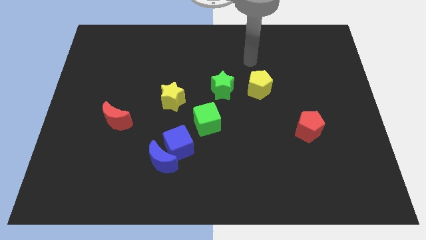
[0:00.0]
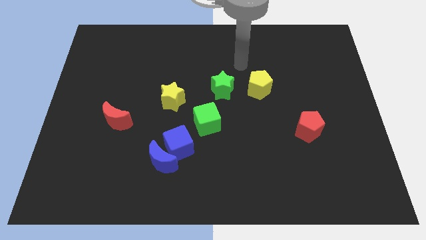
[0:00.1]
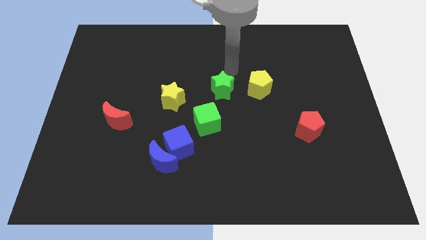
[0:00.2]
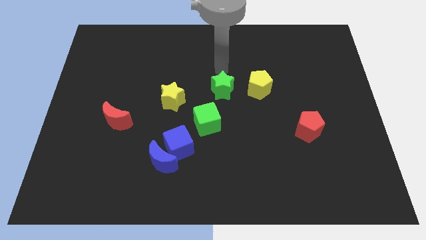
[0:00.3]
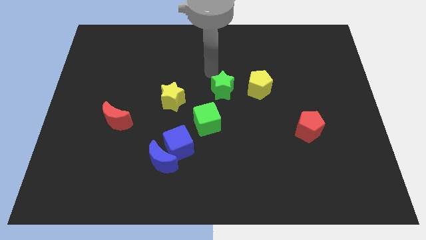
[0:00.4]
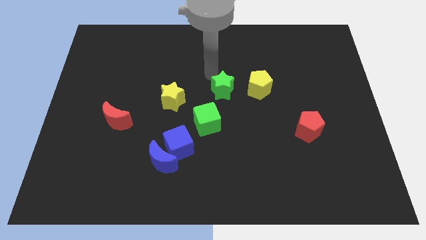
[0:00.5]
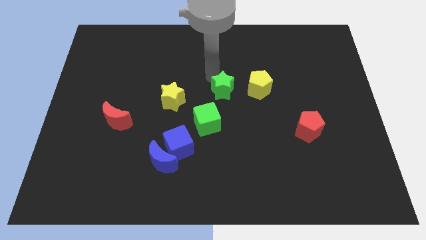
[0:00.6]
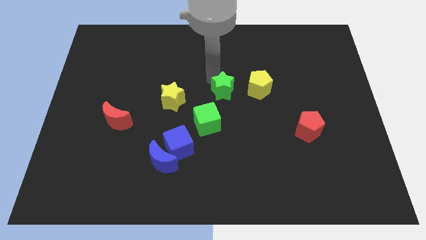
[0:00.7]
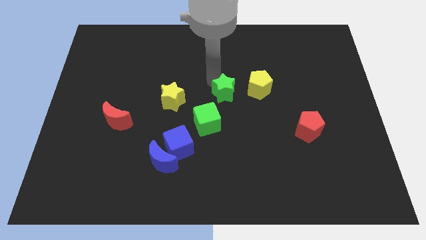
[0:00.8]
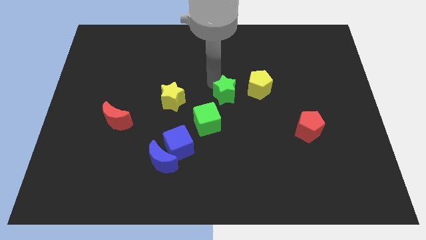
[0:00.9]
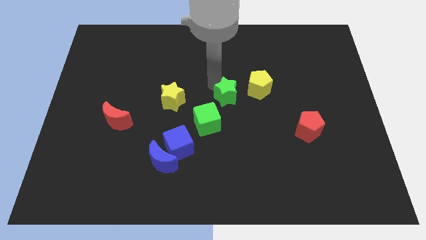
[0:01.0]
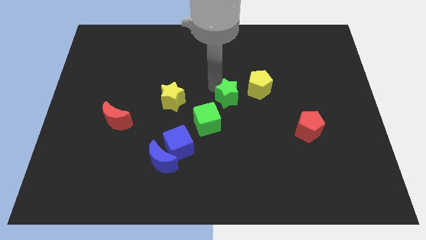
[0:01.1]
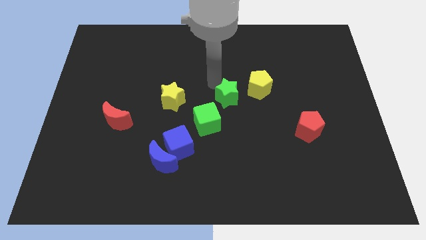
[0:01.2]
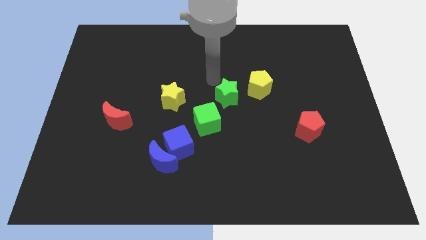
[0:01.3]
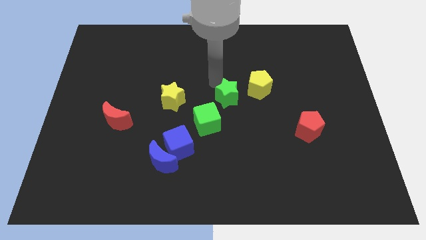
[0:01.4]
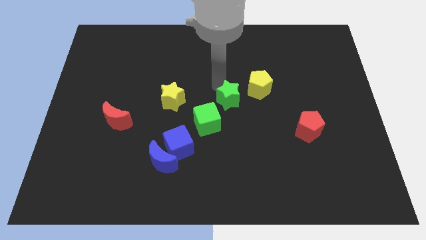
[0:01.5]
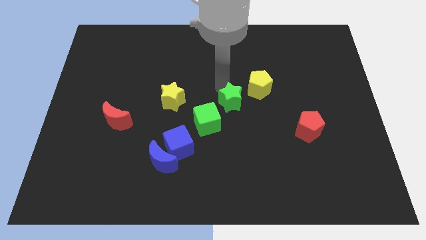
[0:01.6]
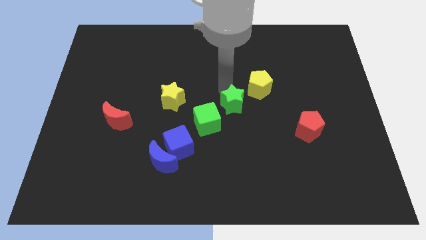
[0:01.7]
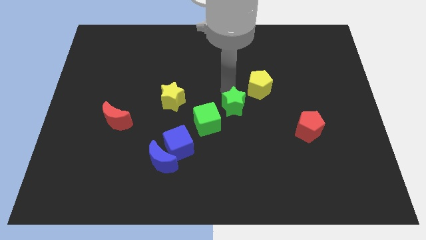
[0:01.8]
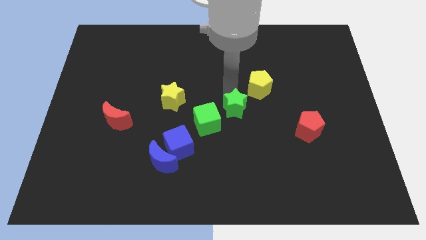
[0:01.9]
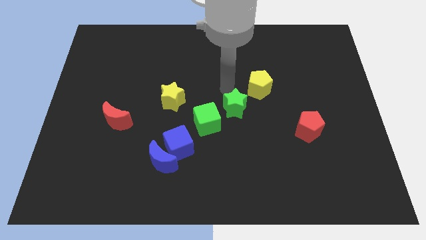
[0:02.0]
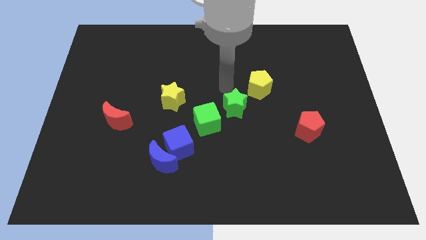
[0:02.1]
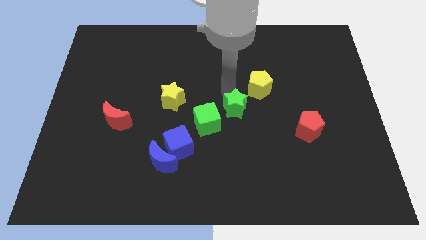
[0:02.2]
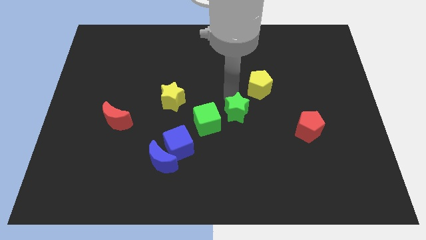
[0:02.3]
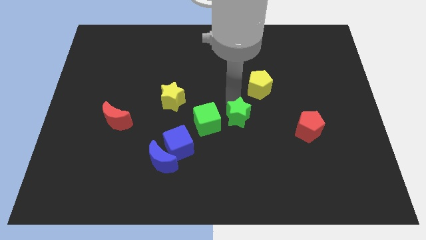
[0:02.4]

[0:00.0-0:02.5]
move the green star downwards a little

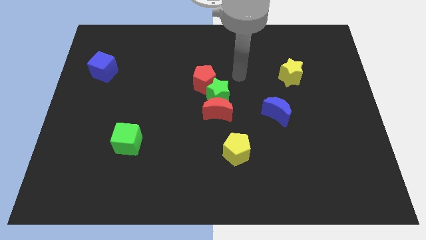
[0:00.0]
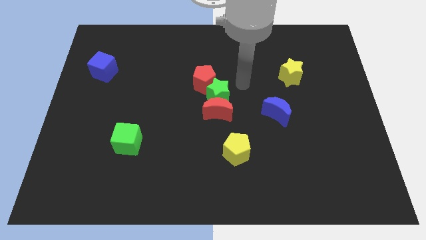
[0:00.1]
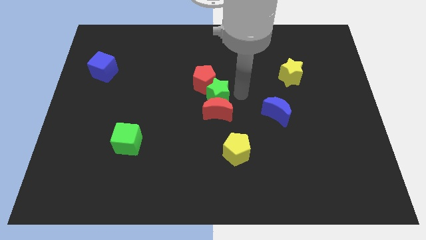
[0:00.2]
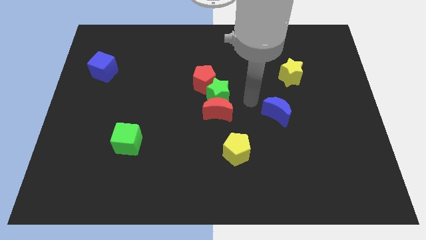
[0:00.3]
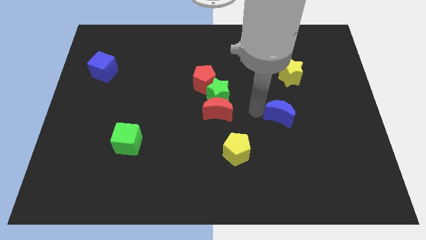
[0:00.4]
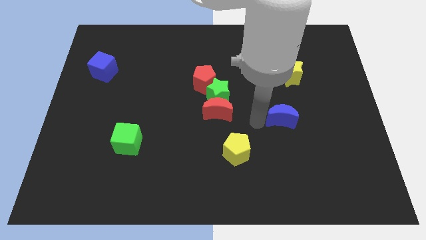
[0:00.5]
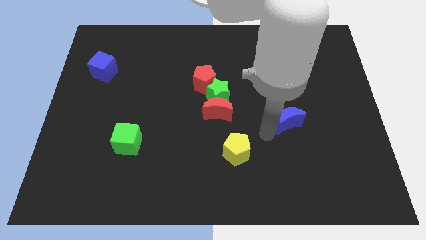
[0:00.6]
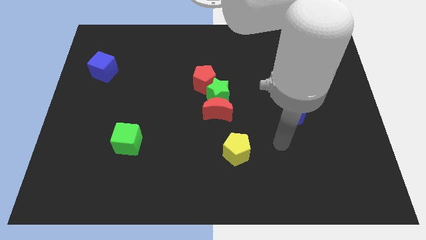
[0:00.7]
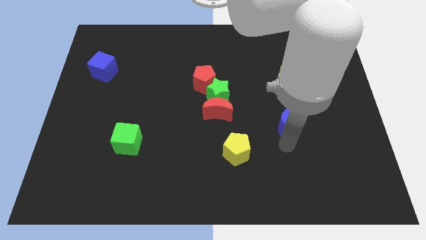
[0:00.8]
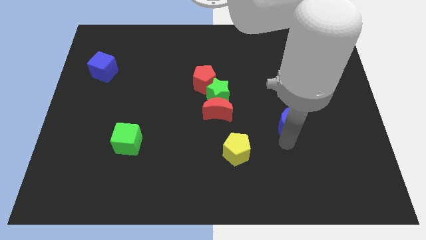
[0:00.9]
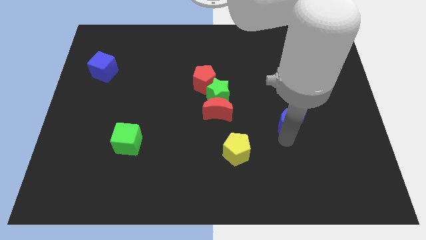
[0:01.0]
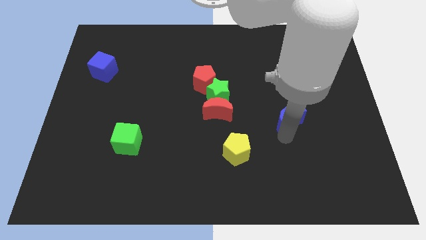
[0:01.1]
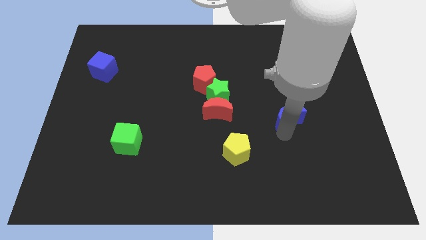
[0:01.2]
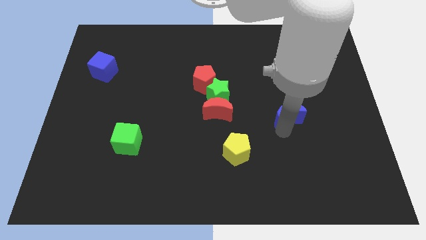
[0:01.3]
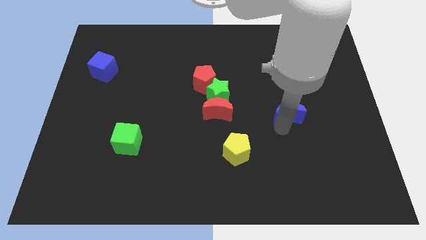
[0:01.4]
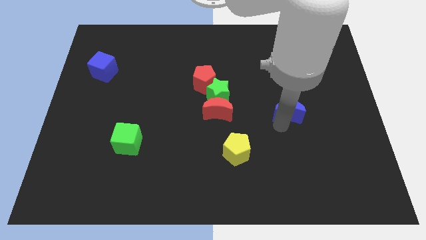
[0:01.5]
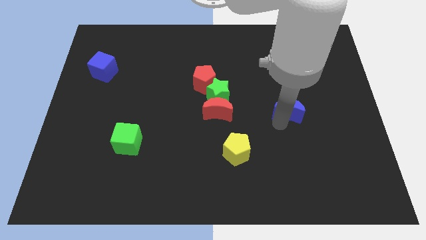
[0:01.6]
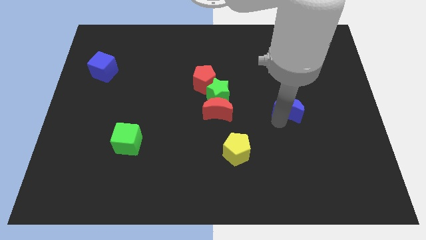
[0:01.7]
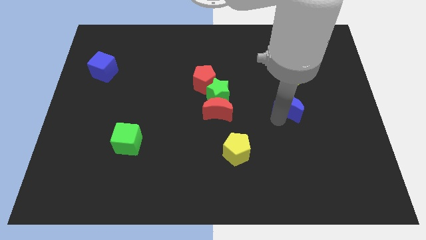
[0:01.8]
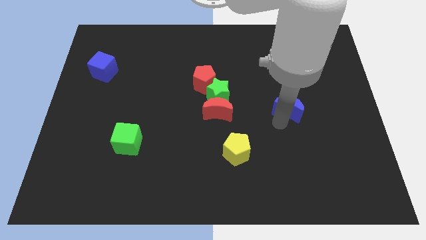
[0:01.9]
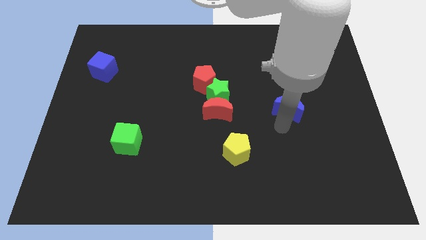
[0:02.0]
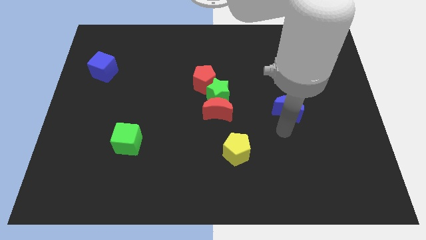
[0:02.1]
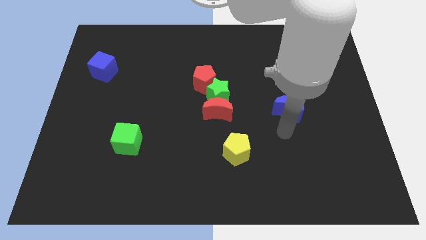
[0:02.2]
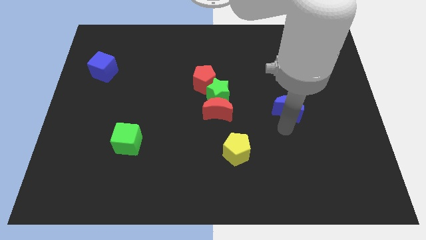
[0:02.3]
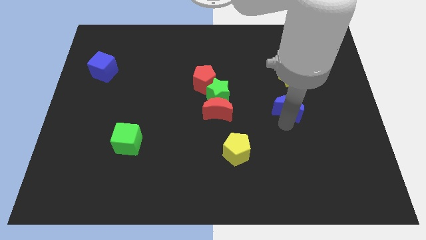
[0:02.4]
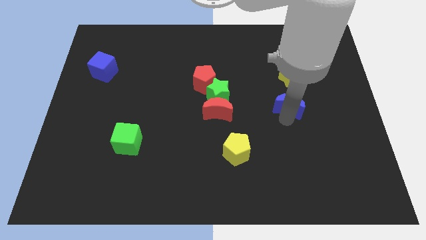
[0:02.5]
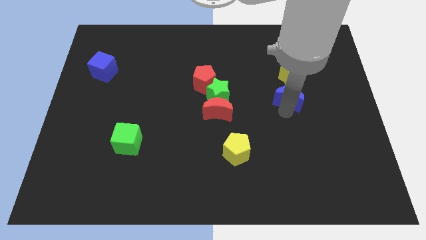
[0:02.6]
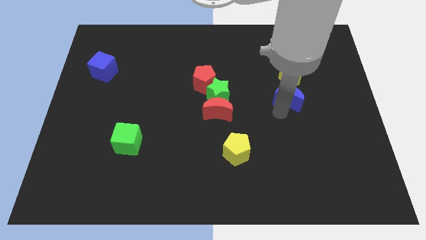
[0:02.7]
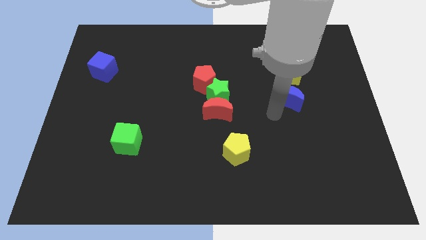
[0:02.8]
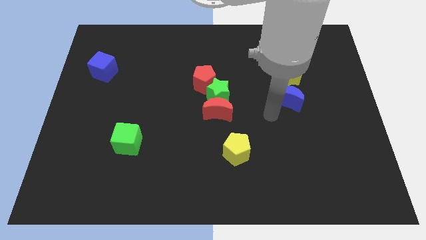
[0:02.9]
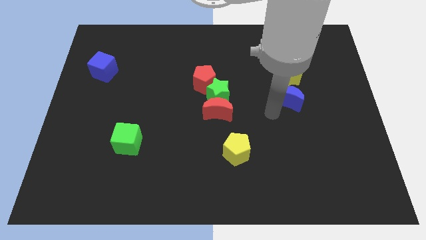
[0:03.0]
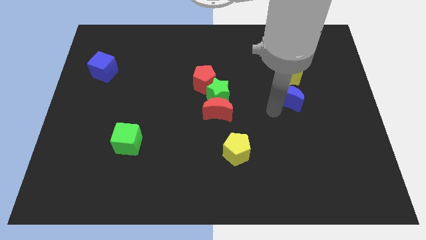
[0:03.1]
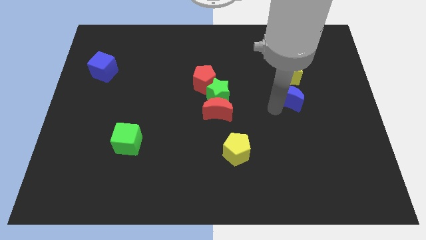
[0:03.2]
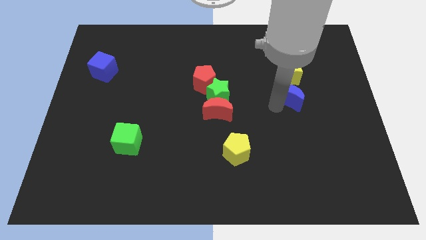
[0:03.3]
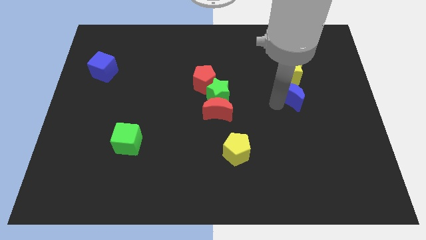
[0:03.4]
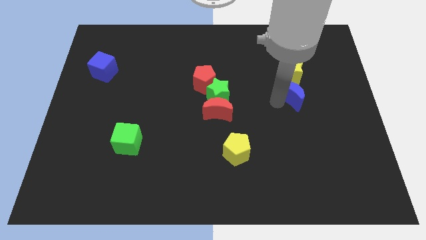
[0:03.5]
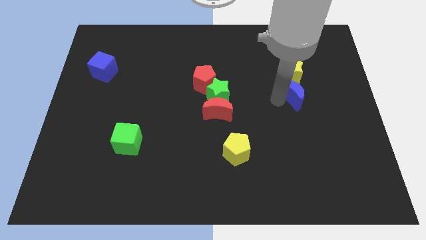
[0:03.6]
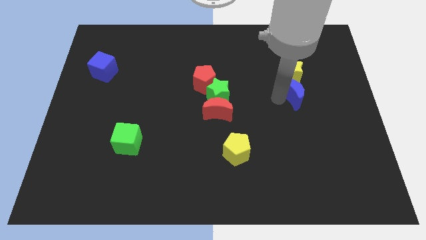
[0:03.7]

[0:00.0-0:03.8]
move the blue moon somewhat upwards and then right

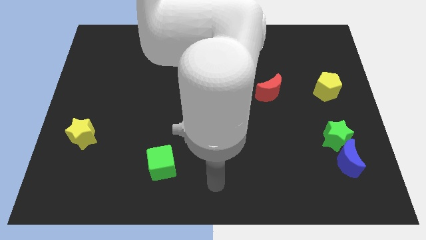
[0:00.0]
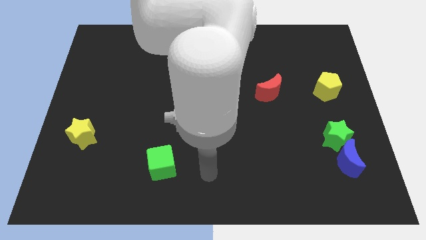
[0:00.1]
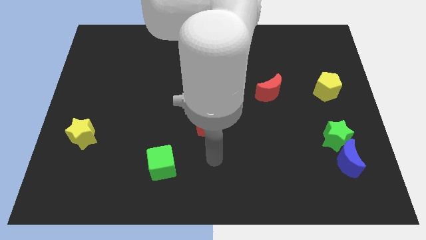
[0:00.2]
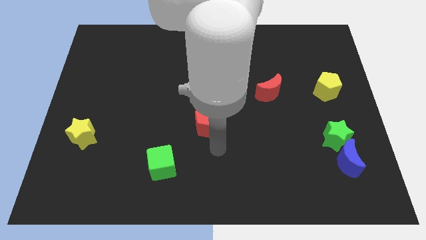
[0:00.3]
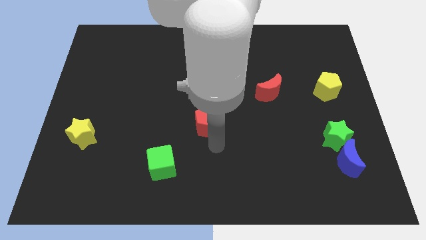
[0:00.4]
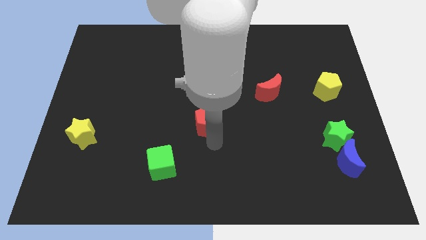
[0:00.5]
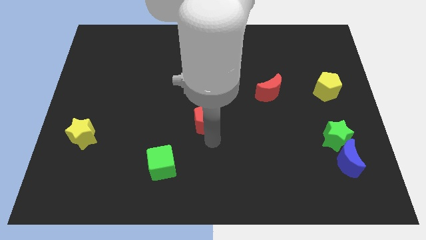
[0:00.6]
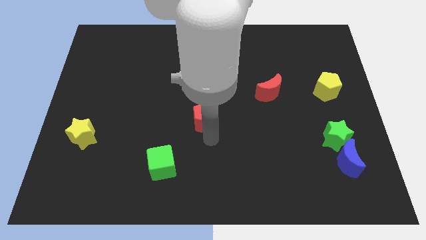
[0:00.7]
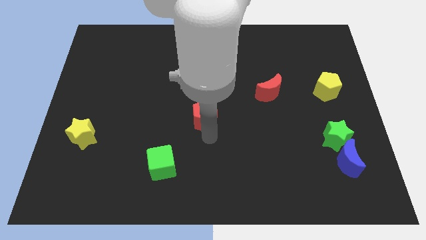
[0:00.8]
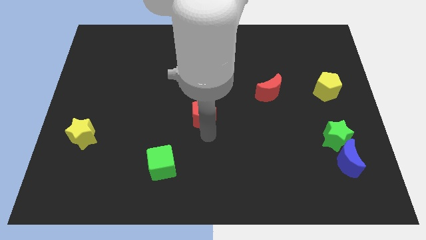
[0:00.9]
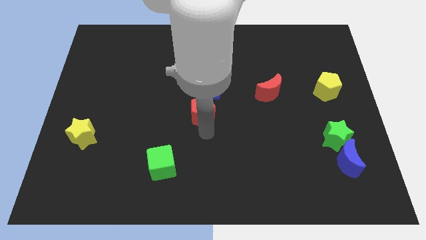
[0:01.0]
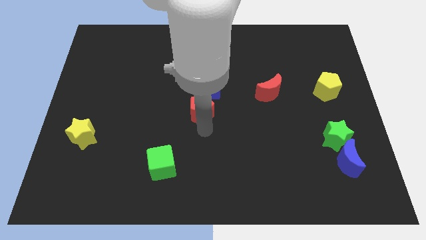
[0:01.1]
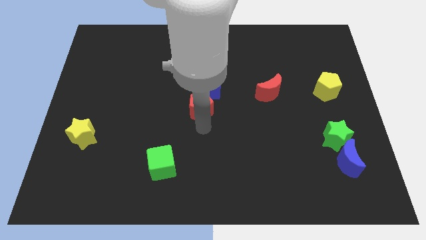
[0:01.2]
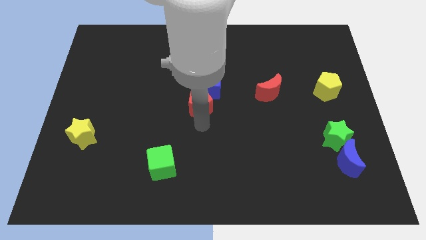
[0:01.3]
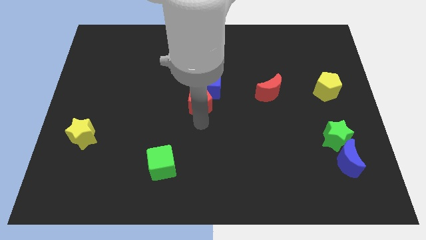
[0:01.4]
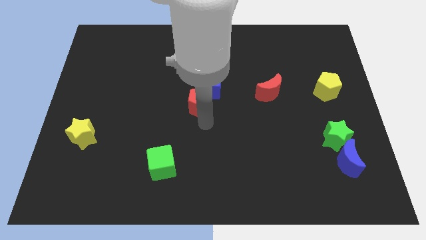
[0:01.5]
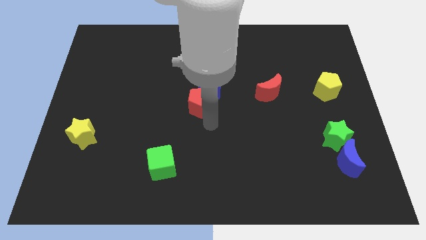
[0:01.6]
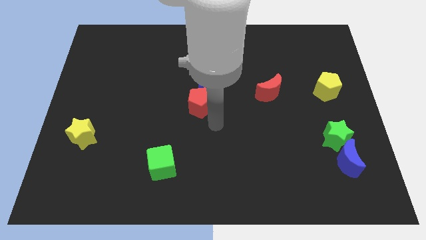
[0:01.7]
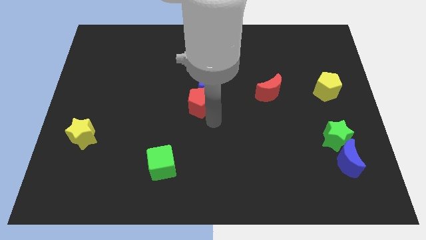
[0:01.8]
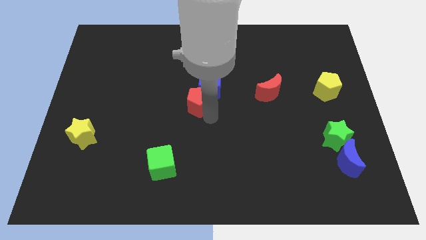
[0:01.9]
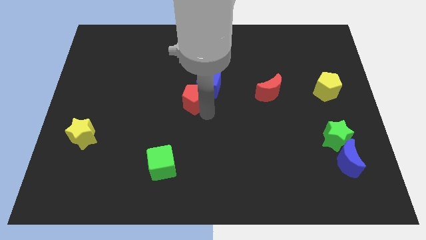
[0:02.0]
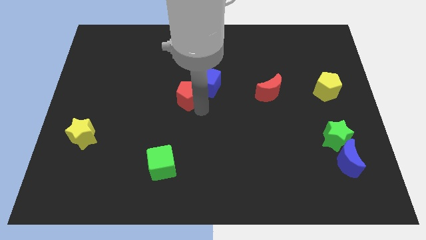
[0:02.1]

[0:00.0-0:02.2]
move the red pentagon a bit upwards
